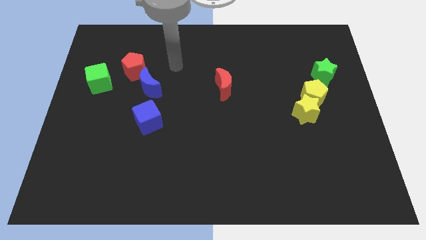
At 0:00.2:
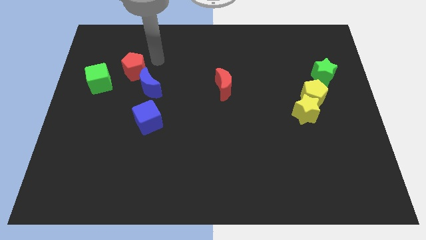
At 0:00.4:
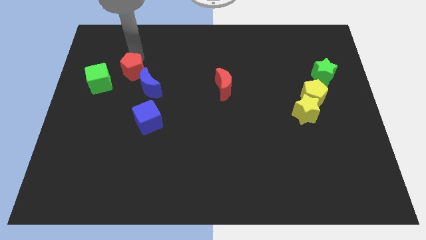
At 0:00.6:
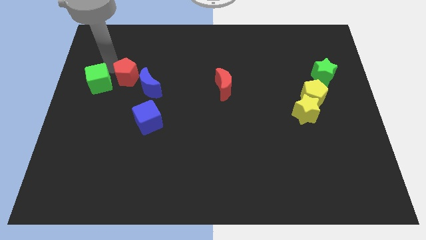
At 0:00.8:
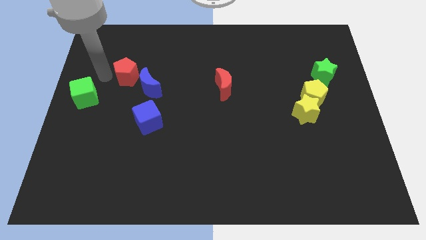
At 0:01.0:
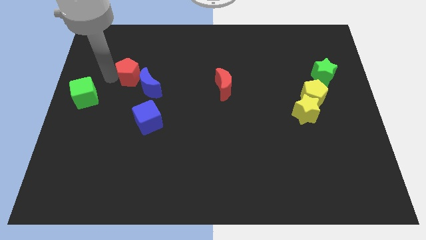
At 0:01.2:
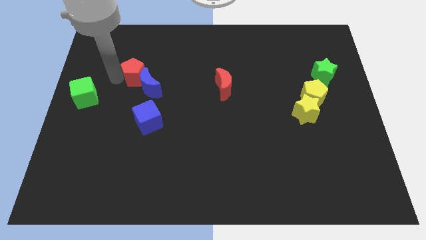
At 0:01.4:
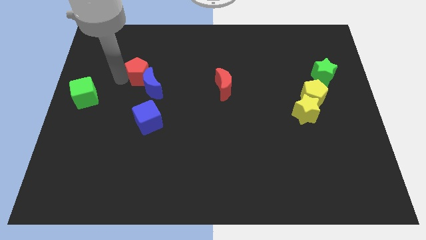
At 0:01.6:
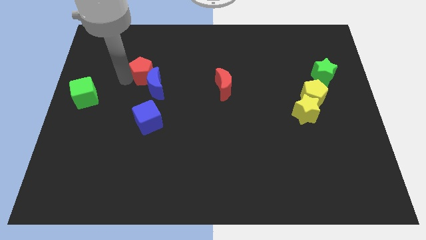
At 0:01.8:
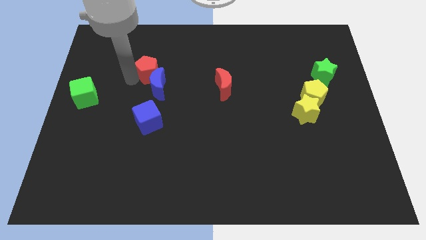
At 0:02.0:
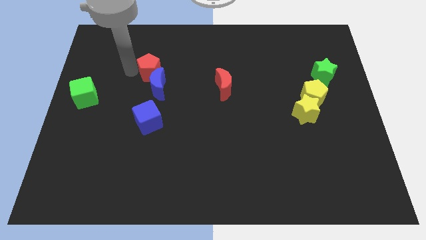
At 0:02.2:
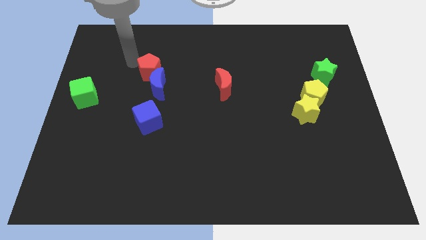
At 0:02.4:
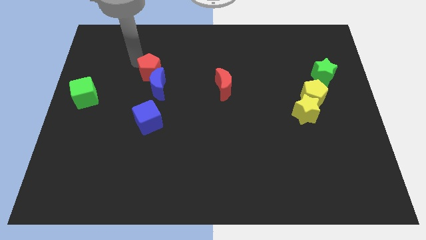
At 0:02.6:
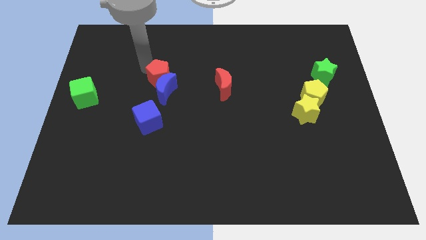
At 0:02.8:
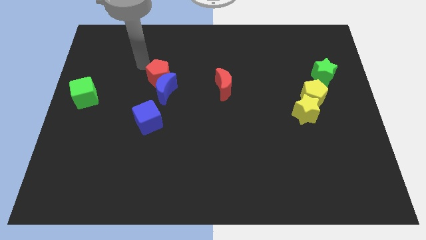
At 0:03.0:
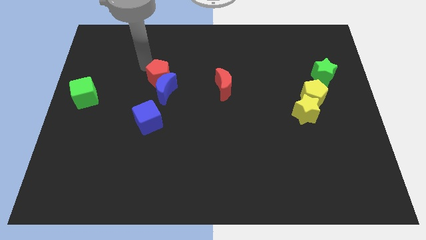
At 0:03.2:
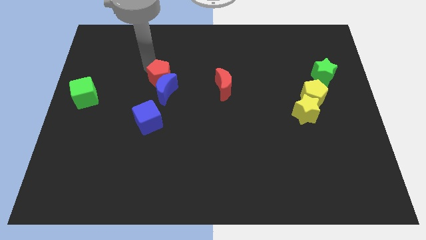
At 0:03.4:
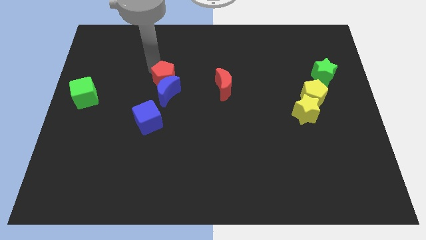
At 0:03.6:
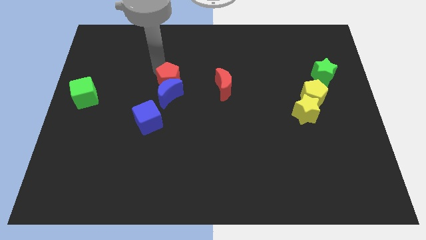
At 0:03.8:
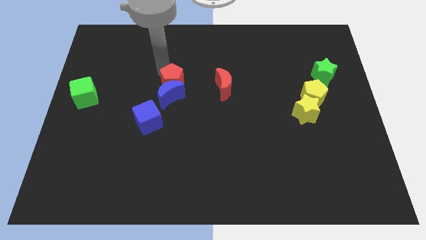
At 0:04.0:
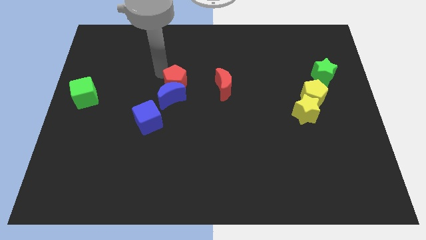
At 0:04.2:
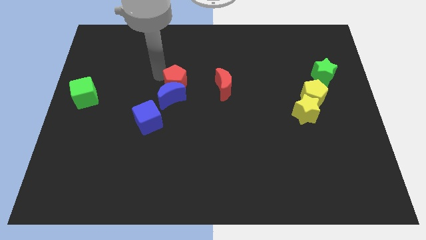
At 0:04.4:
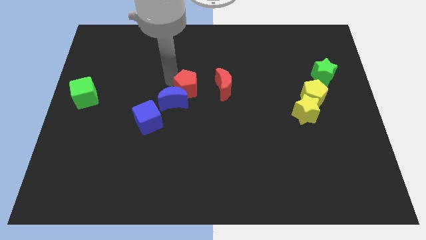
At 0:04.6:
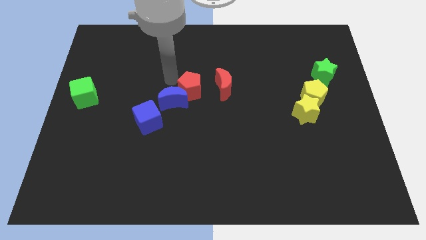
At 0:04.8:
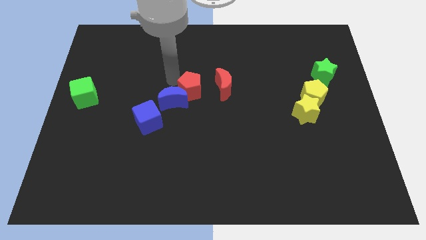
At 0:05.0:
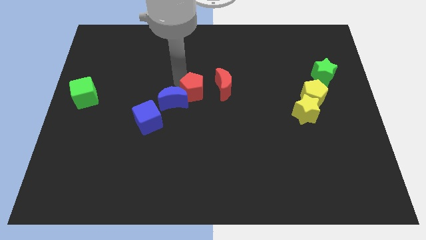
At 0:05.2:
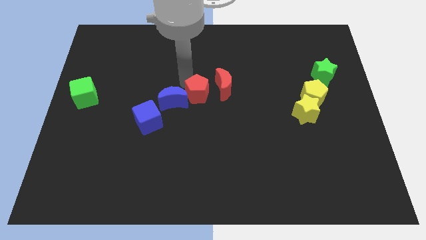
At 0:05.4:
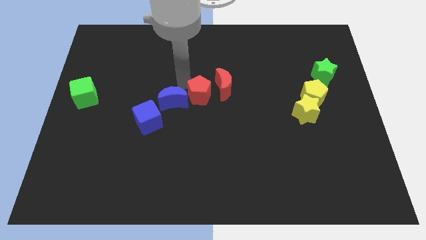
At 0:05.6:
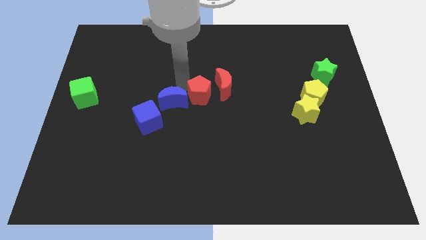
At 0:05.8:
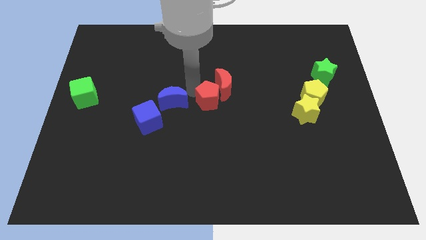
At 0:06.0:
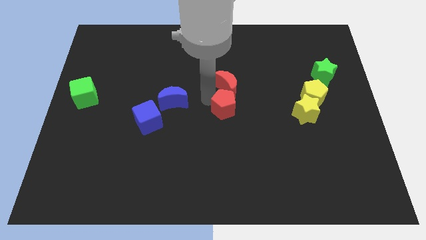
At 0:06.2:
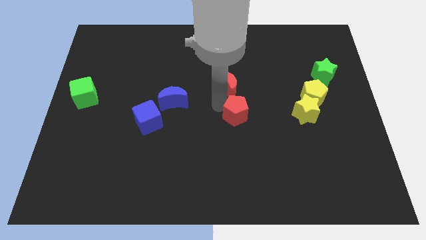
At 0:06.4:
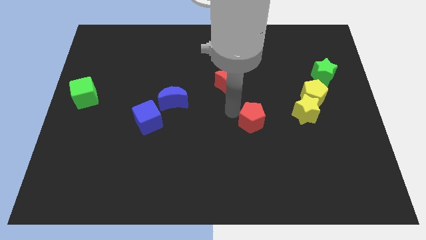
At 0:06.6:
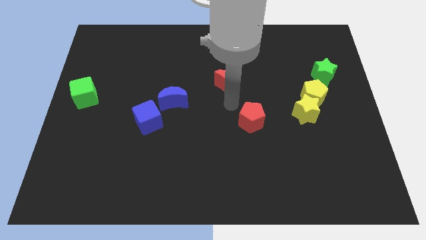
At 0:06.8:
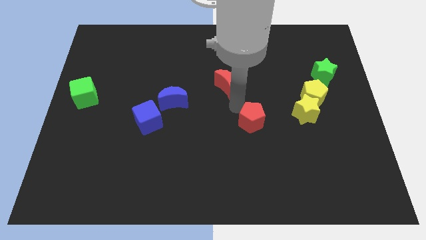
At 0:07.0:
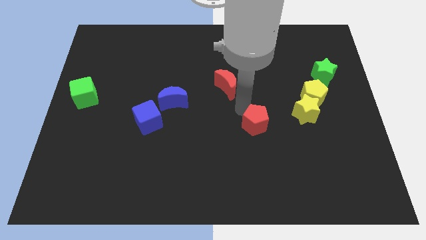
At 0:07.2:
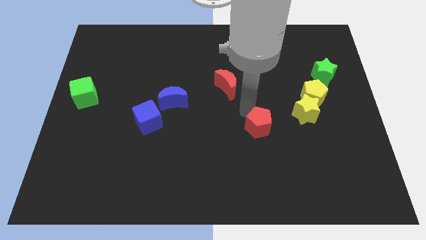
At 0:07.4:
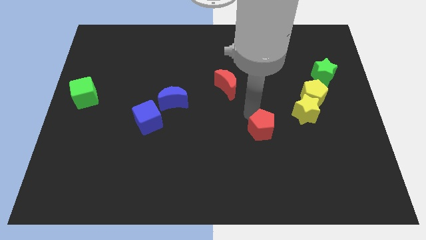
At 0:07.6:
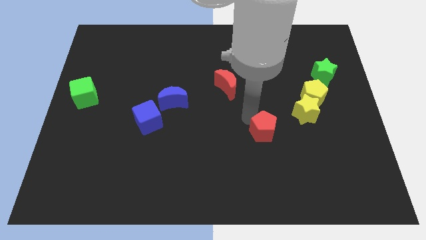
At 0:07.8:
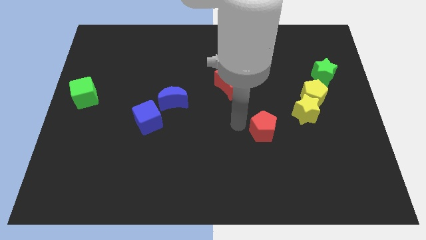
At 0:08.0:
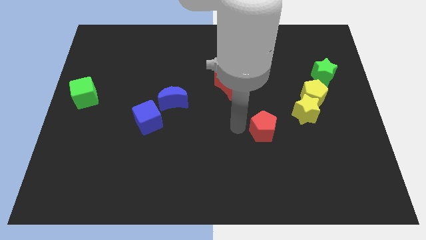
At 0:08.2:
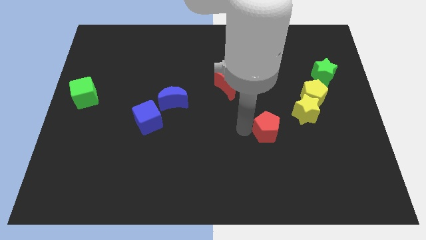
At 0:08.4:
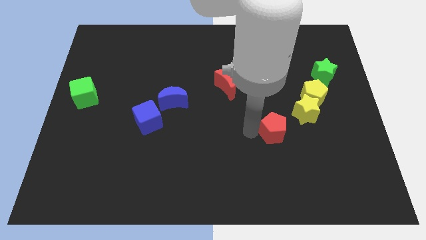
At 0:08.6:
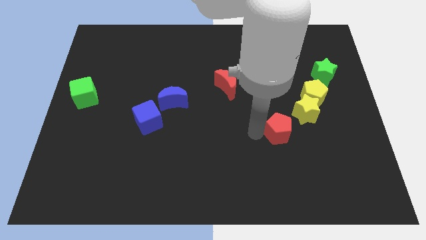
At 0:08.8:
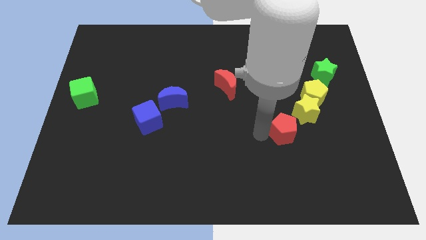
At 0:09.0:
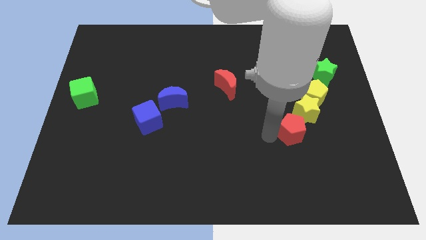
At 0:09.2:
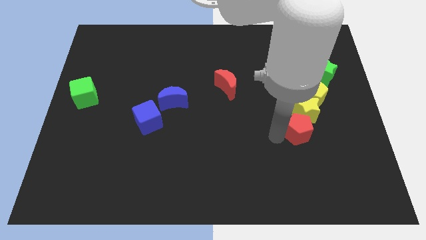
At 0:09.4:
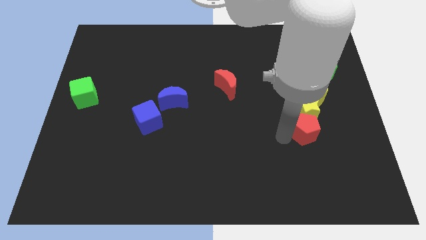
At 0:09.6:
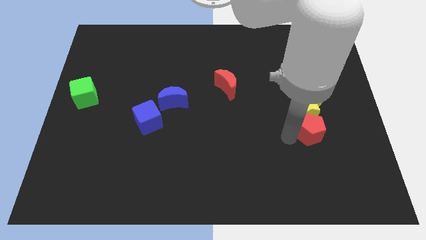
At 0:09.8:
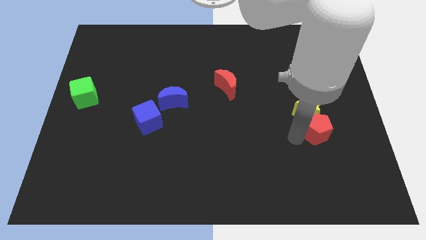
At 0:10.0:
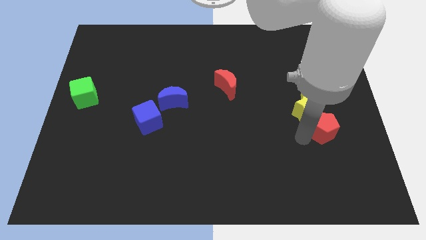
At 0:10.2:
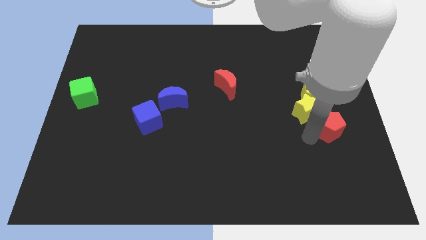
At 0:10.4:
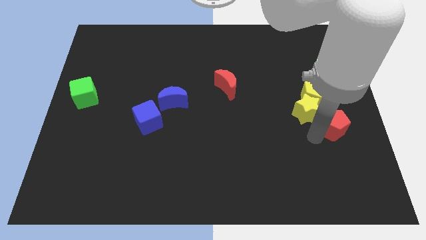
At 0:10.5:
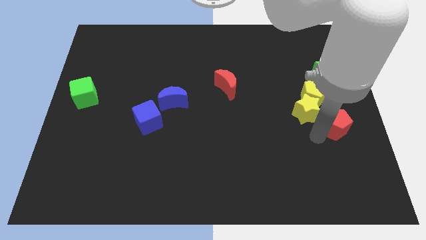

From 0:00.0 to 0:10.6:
put the red pentagon to the right side

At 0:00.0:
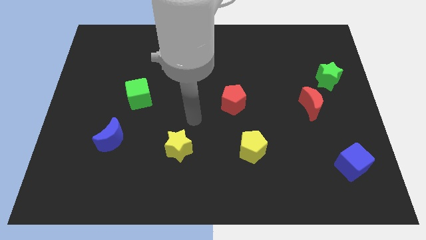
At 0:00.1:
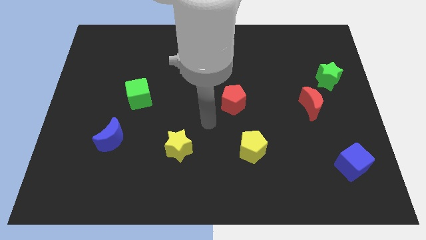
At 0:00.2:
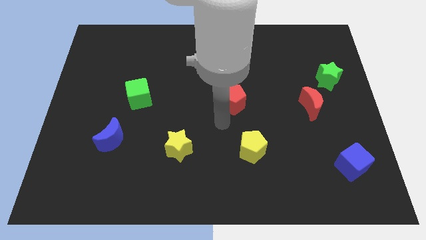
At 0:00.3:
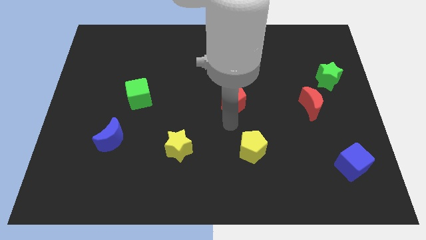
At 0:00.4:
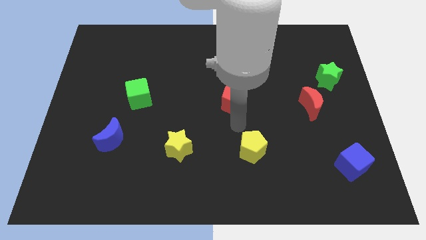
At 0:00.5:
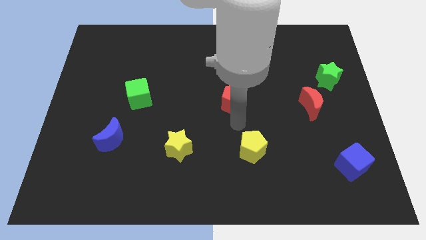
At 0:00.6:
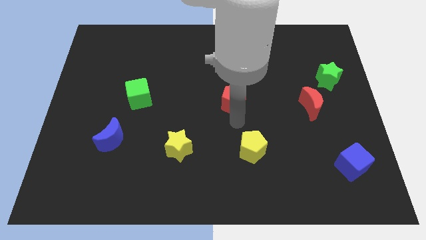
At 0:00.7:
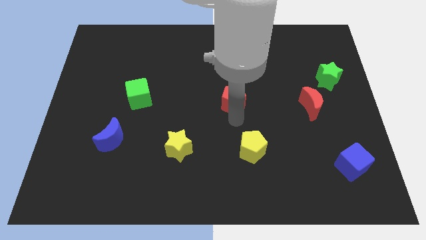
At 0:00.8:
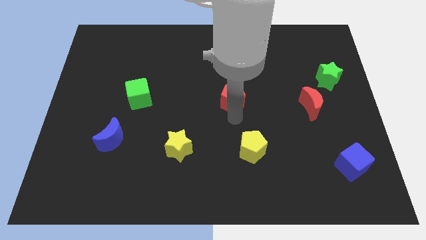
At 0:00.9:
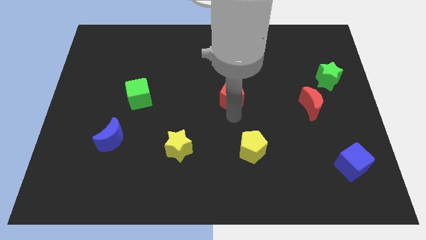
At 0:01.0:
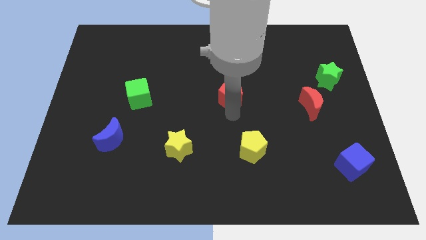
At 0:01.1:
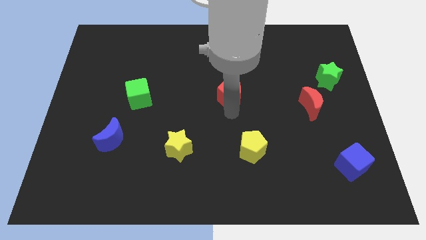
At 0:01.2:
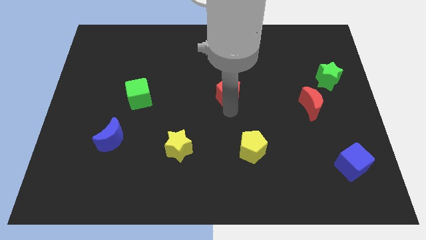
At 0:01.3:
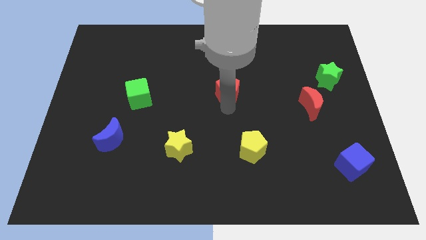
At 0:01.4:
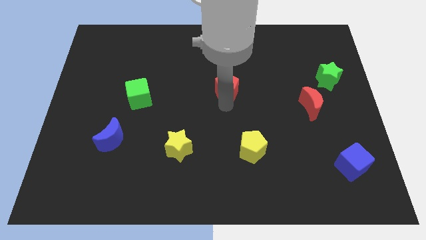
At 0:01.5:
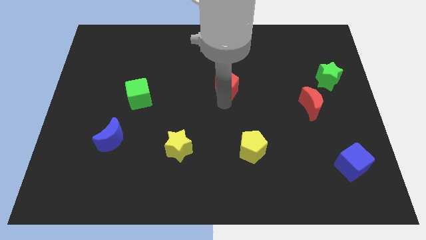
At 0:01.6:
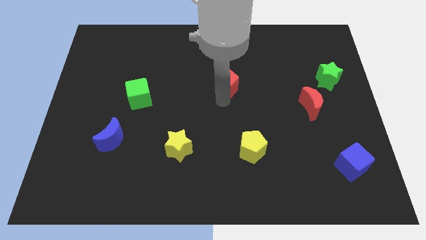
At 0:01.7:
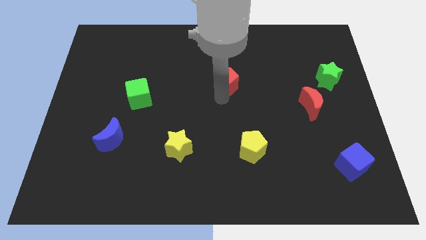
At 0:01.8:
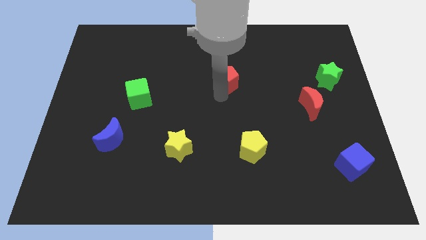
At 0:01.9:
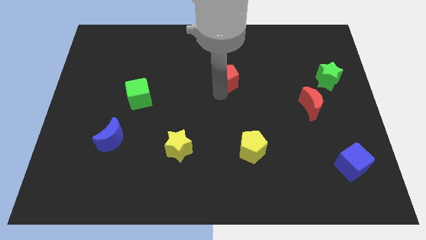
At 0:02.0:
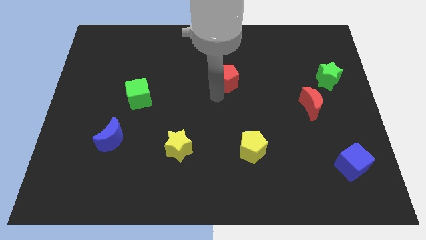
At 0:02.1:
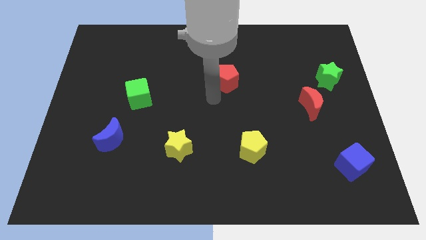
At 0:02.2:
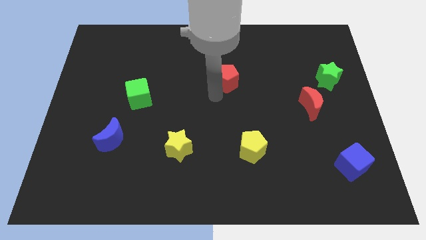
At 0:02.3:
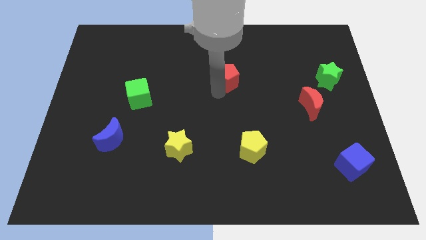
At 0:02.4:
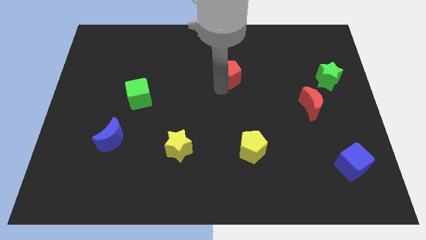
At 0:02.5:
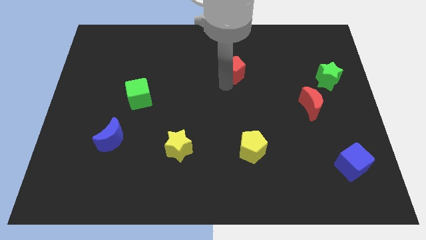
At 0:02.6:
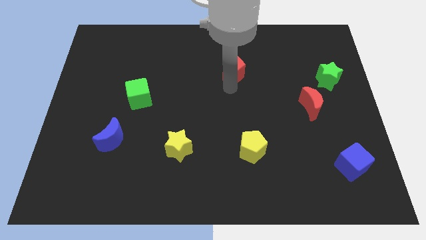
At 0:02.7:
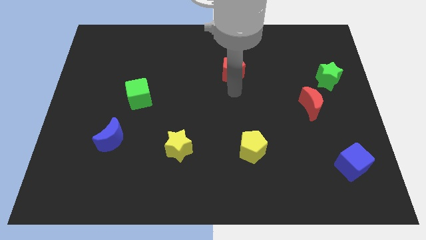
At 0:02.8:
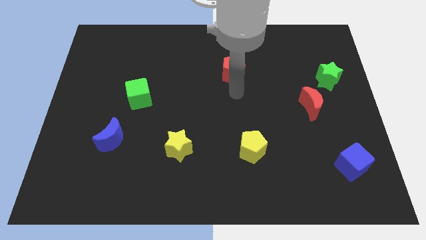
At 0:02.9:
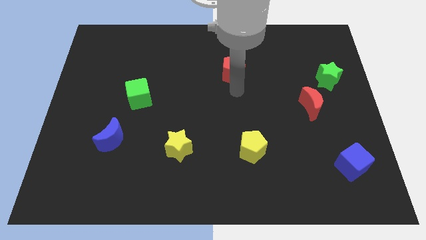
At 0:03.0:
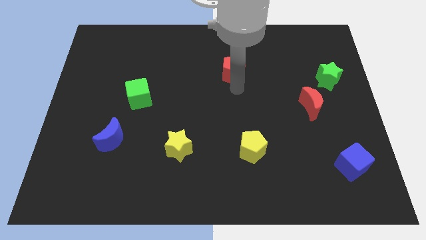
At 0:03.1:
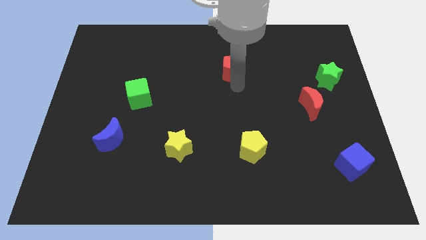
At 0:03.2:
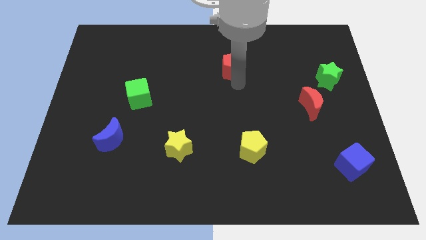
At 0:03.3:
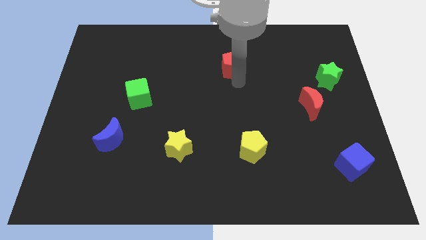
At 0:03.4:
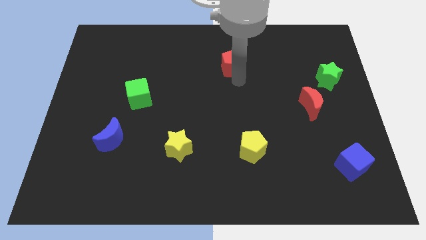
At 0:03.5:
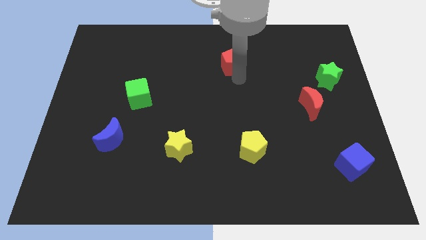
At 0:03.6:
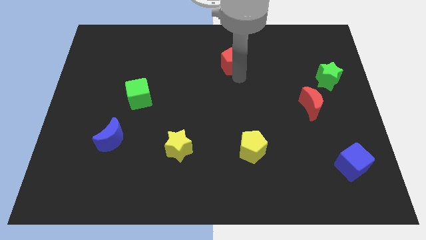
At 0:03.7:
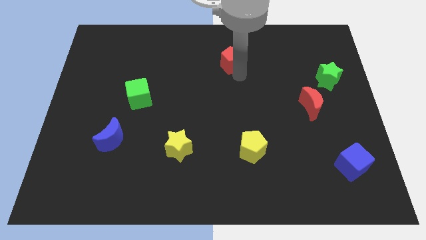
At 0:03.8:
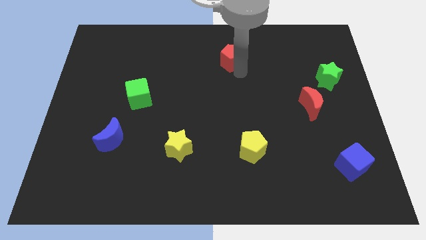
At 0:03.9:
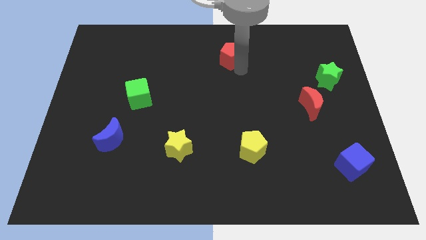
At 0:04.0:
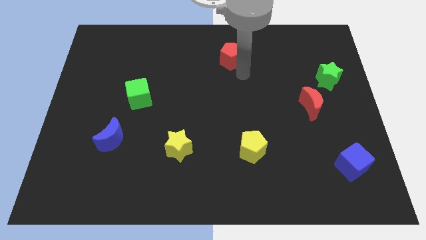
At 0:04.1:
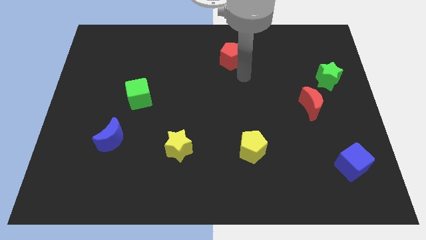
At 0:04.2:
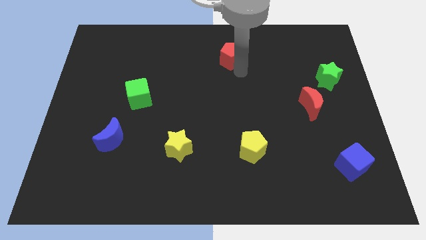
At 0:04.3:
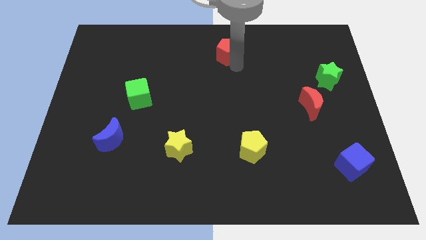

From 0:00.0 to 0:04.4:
move the red pentagon to the top side
